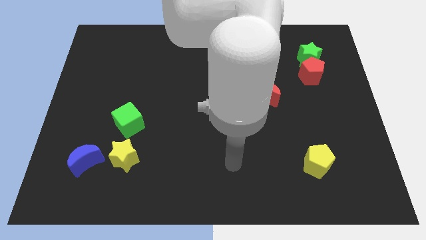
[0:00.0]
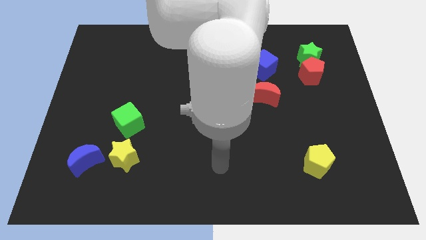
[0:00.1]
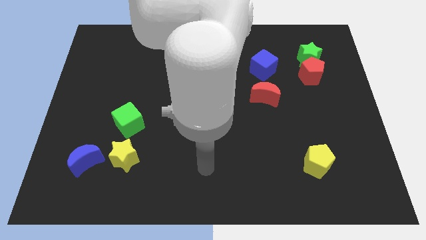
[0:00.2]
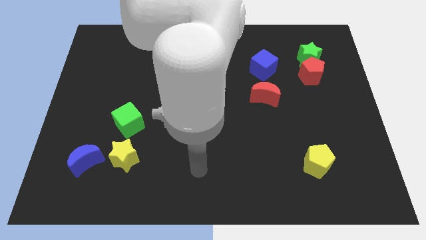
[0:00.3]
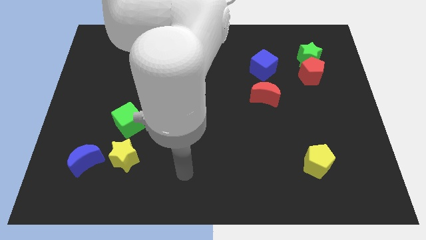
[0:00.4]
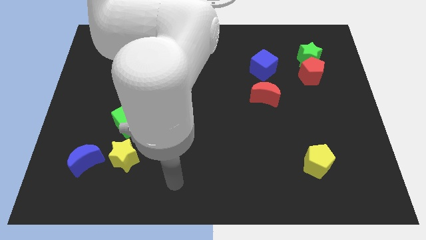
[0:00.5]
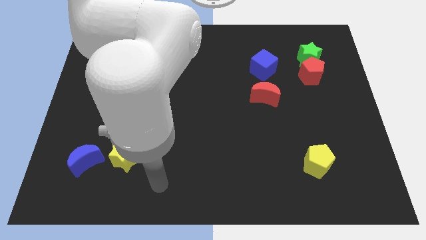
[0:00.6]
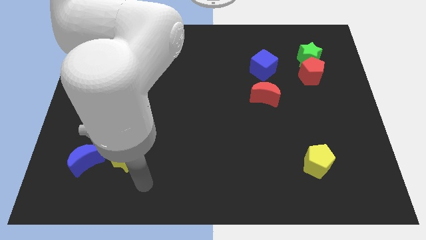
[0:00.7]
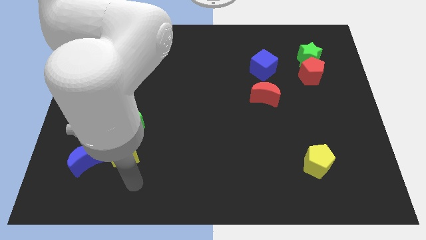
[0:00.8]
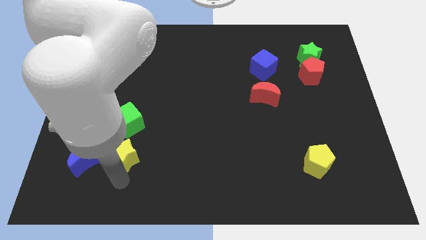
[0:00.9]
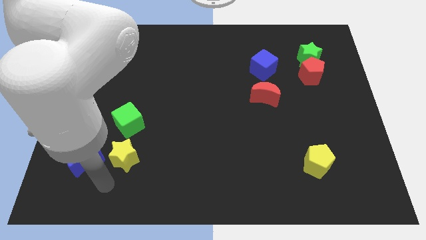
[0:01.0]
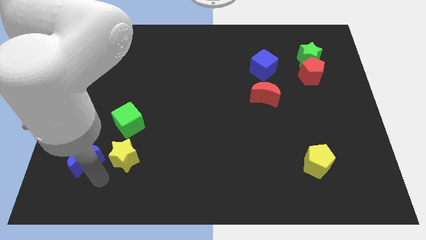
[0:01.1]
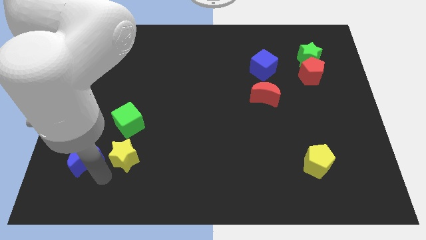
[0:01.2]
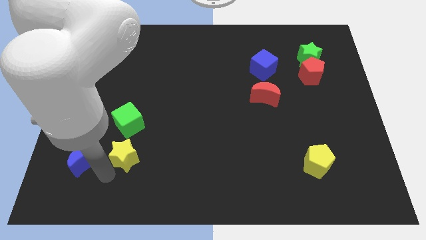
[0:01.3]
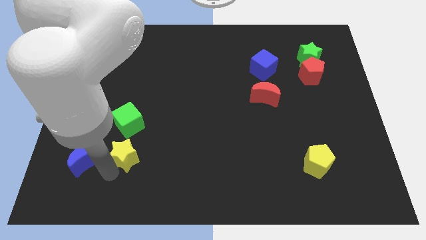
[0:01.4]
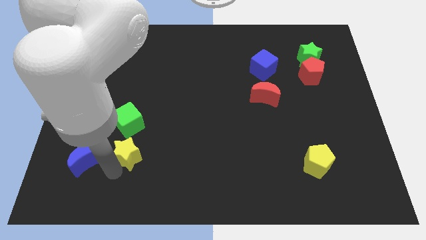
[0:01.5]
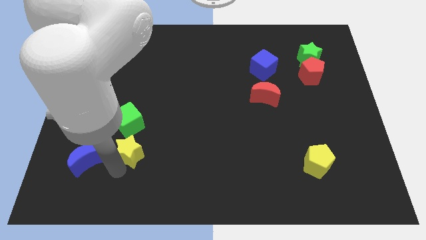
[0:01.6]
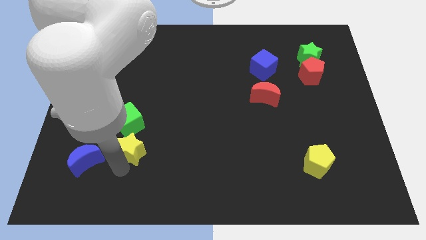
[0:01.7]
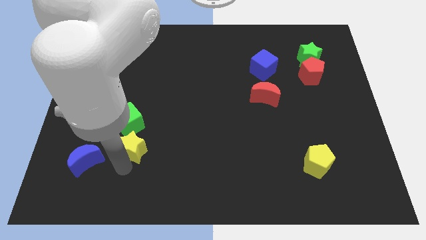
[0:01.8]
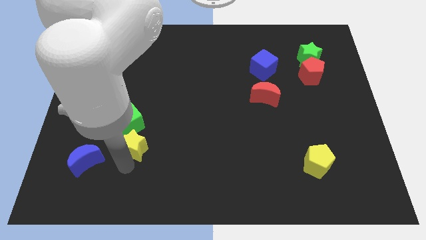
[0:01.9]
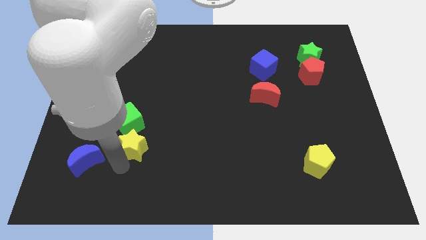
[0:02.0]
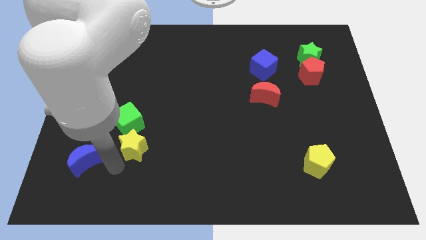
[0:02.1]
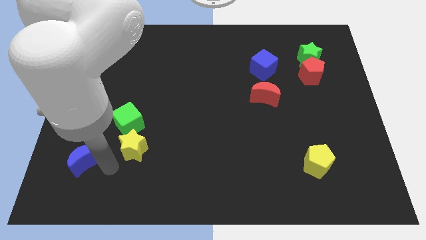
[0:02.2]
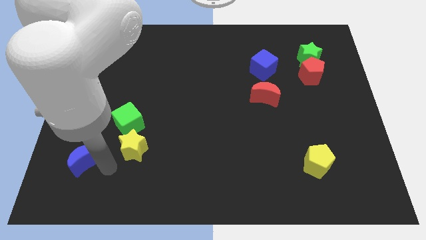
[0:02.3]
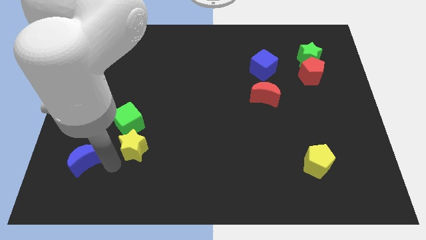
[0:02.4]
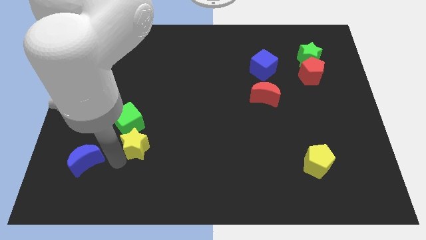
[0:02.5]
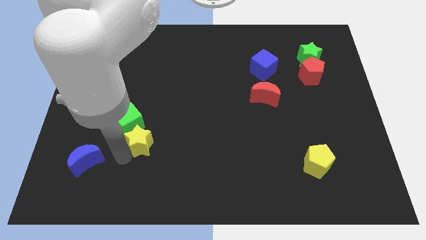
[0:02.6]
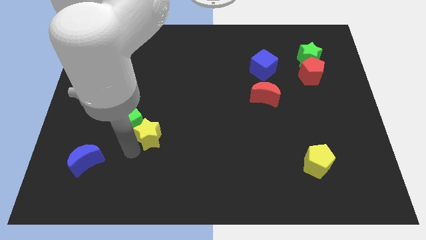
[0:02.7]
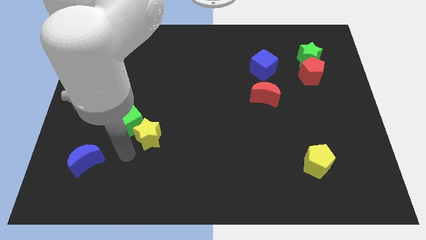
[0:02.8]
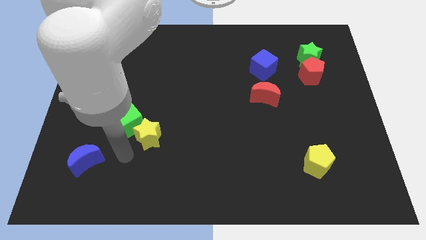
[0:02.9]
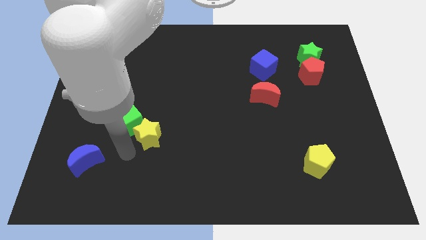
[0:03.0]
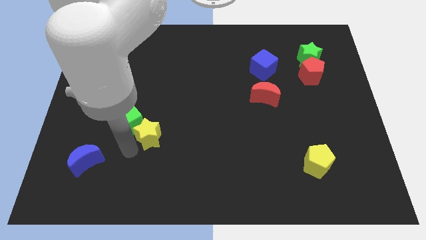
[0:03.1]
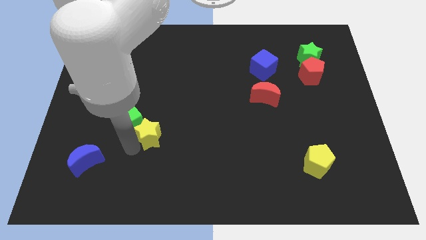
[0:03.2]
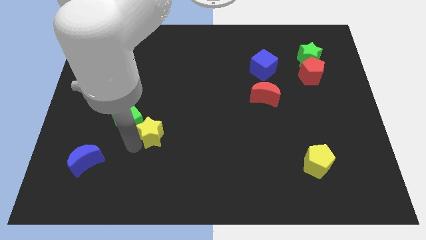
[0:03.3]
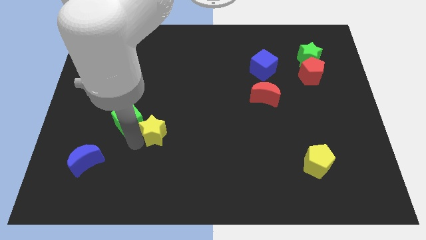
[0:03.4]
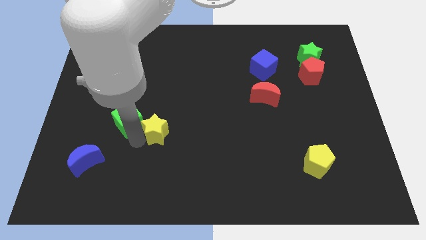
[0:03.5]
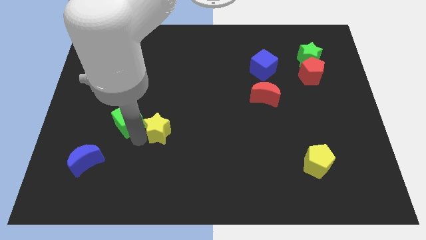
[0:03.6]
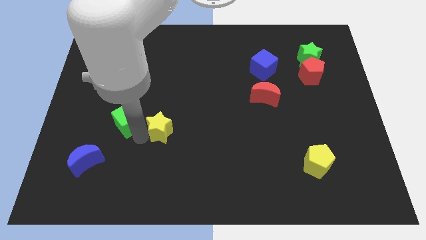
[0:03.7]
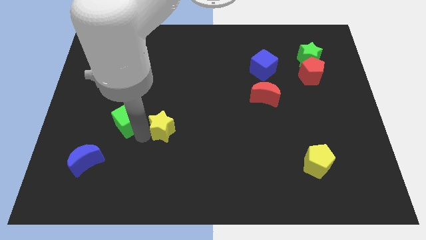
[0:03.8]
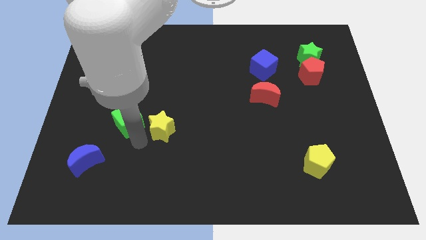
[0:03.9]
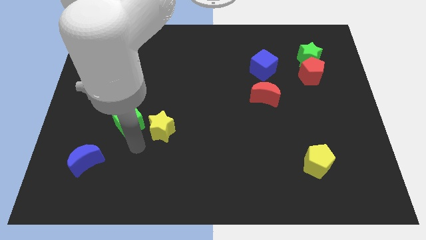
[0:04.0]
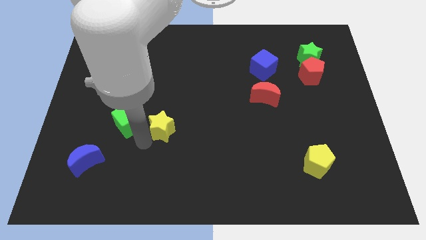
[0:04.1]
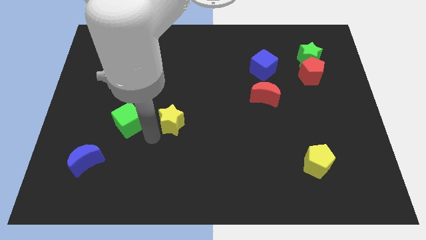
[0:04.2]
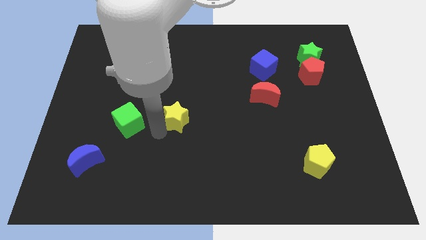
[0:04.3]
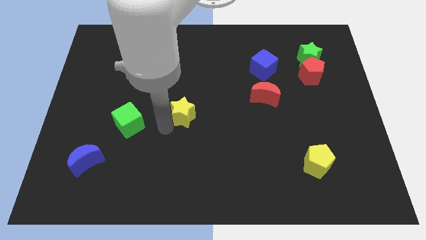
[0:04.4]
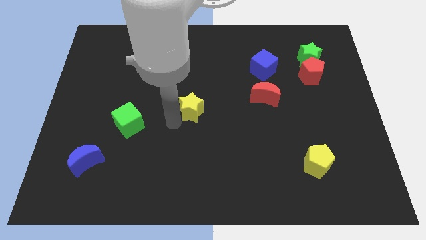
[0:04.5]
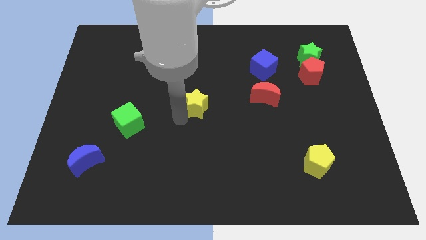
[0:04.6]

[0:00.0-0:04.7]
move the yellow star up and right

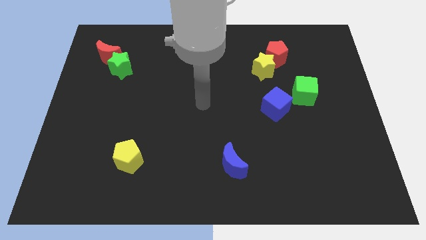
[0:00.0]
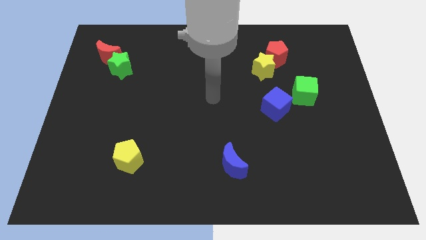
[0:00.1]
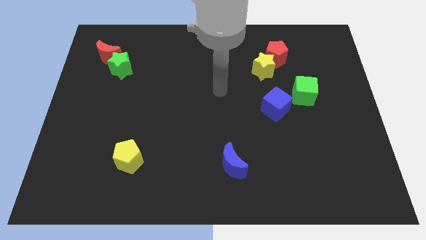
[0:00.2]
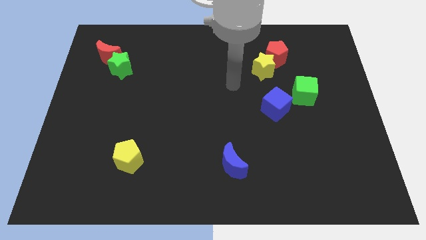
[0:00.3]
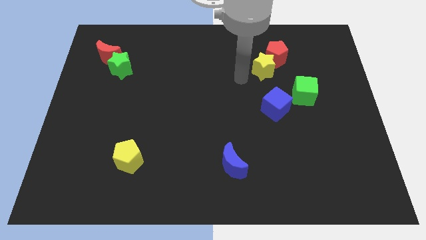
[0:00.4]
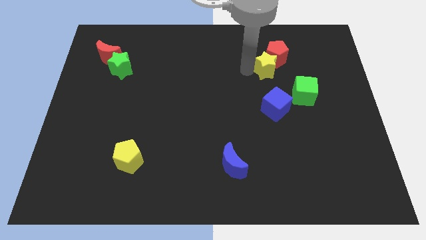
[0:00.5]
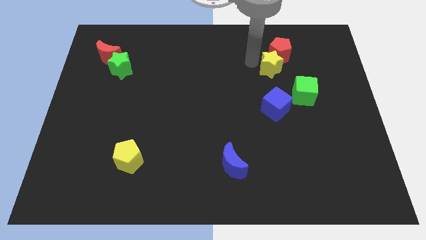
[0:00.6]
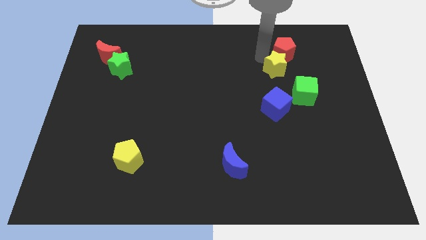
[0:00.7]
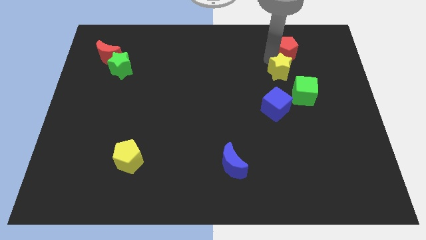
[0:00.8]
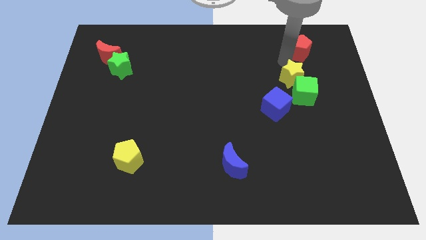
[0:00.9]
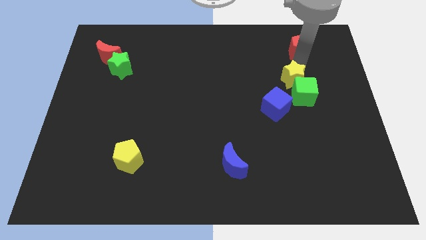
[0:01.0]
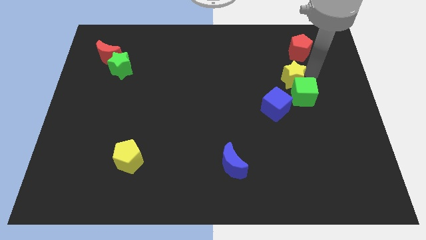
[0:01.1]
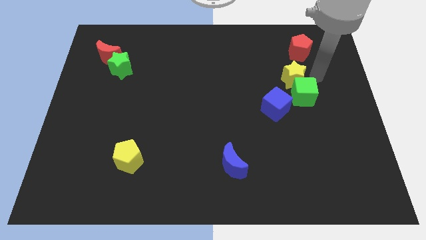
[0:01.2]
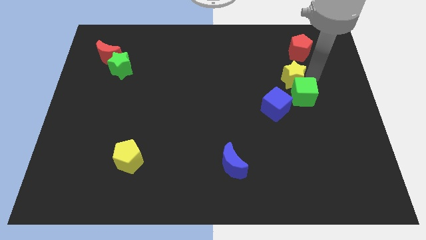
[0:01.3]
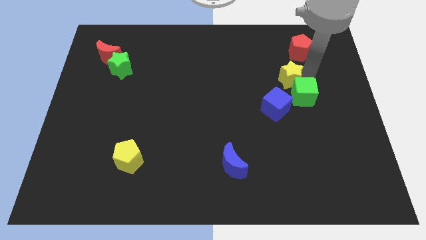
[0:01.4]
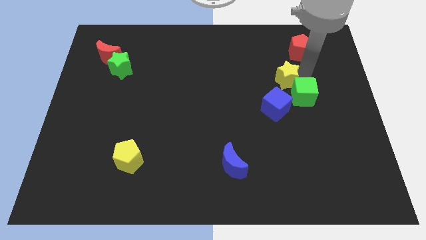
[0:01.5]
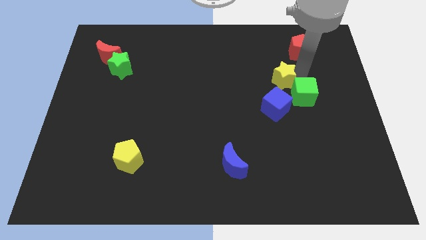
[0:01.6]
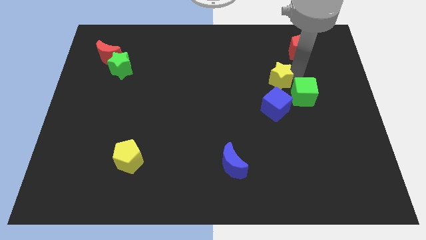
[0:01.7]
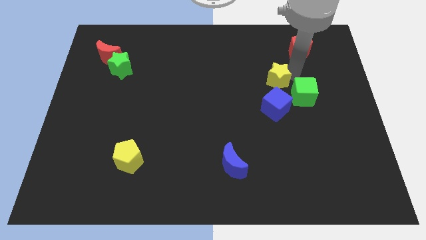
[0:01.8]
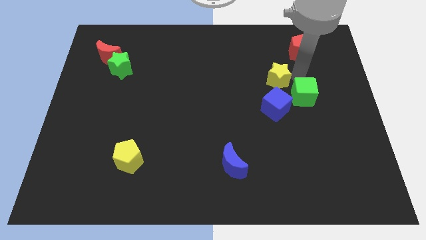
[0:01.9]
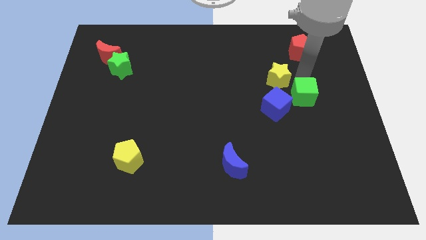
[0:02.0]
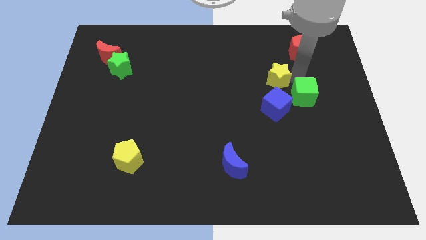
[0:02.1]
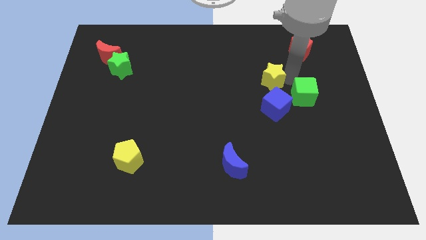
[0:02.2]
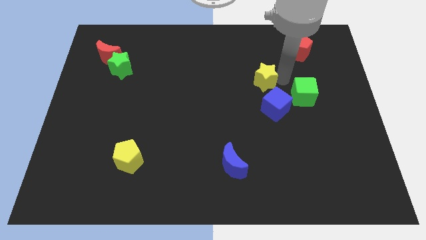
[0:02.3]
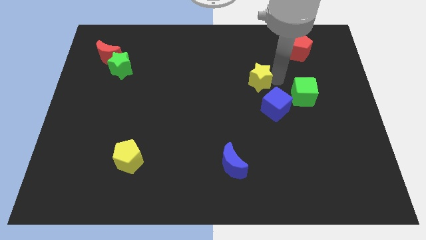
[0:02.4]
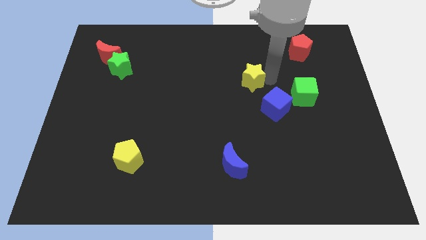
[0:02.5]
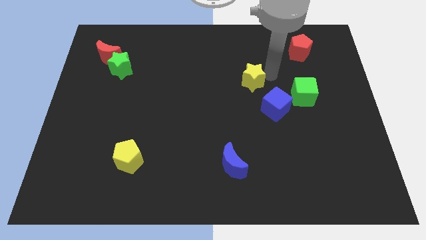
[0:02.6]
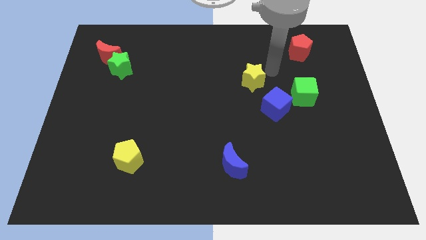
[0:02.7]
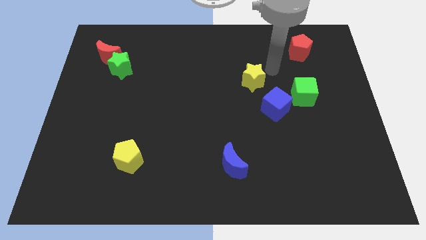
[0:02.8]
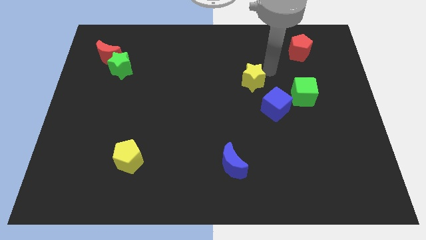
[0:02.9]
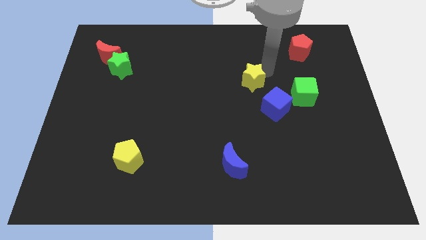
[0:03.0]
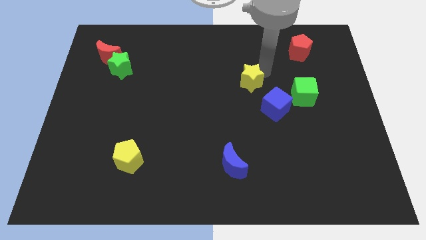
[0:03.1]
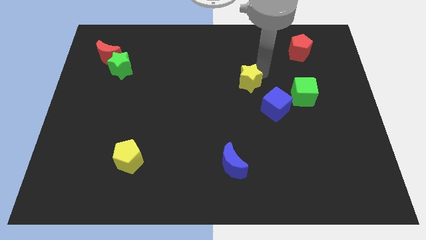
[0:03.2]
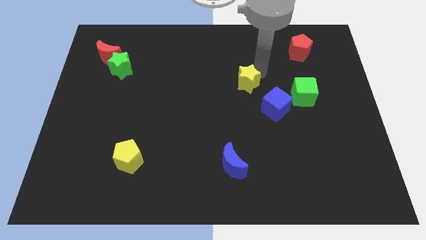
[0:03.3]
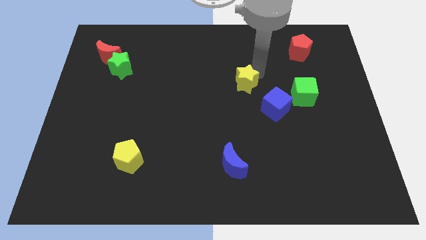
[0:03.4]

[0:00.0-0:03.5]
slide the yellow star diagonally down and left a little
